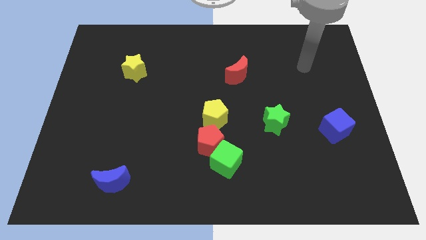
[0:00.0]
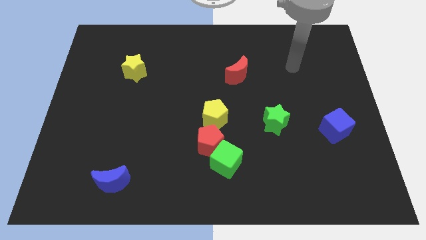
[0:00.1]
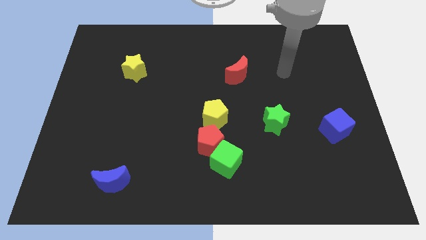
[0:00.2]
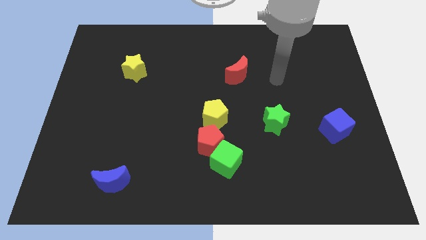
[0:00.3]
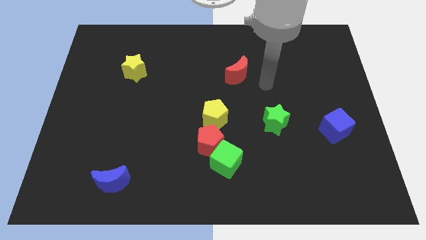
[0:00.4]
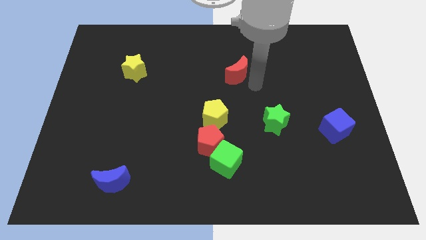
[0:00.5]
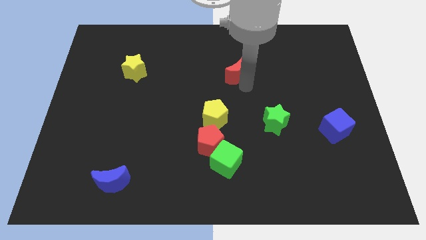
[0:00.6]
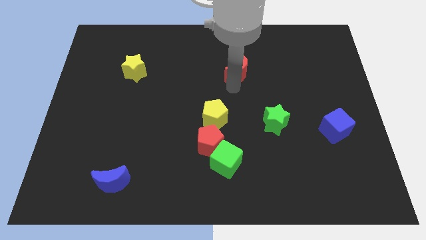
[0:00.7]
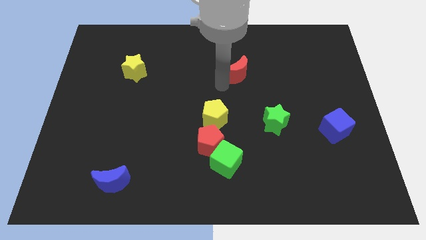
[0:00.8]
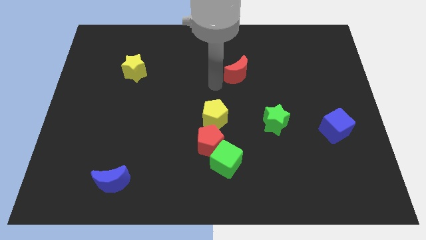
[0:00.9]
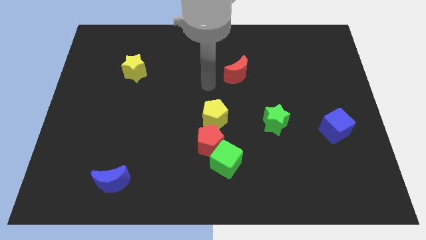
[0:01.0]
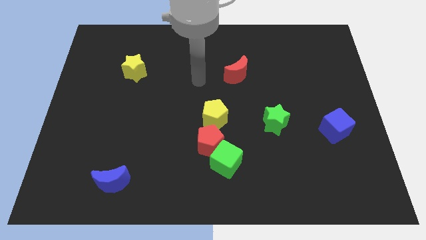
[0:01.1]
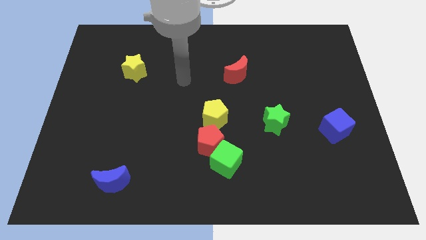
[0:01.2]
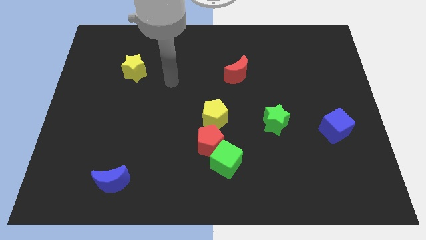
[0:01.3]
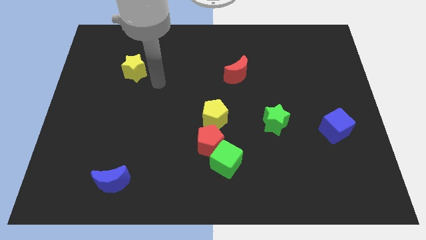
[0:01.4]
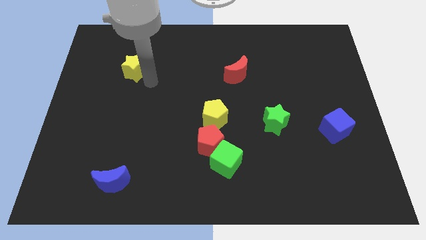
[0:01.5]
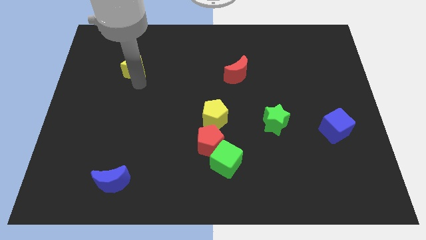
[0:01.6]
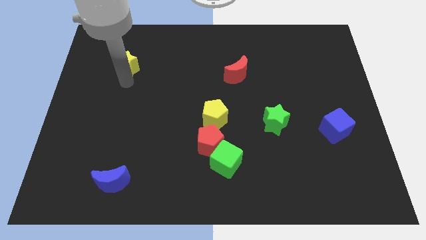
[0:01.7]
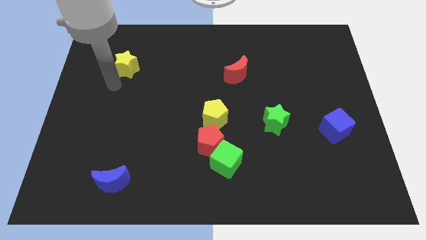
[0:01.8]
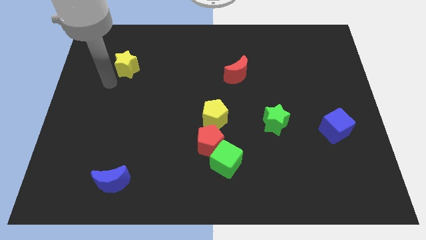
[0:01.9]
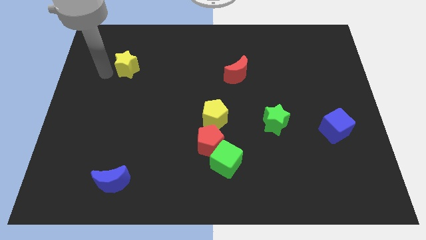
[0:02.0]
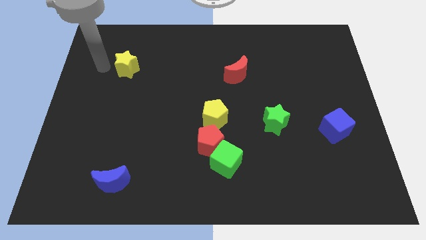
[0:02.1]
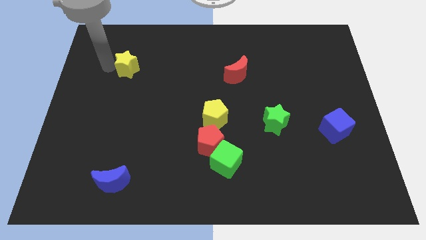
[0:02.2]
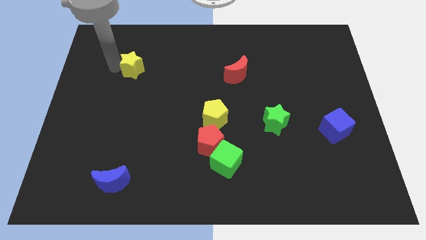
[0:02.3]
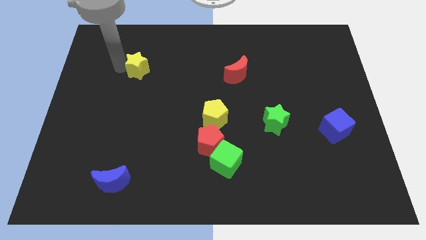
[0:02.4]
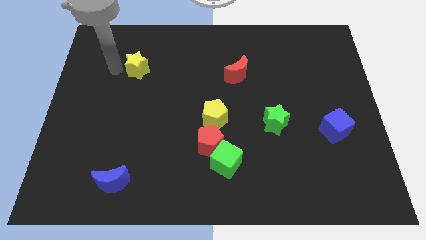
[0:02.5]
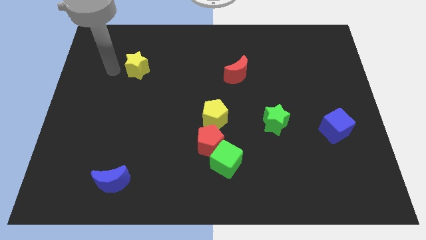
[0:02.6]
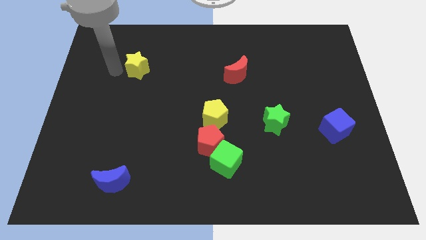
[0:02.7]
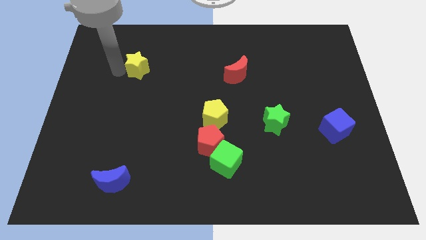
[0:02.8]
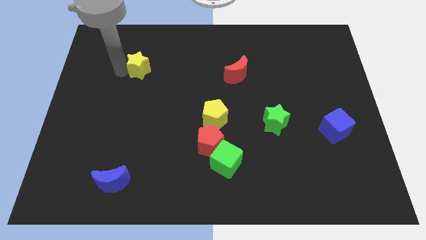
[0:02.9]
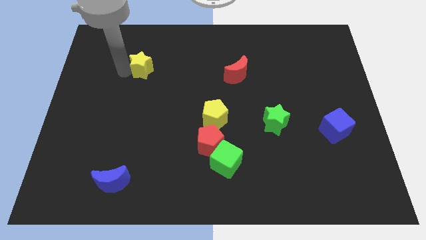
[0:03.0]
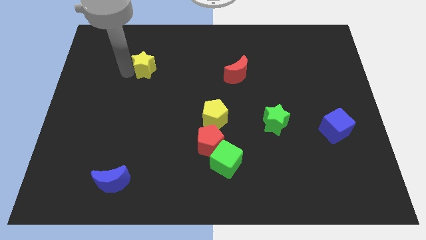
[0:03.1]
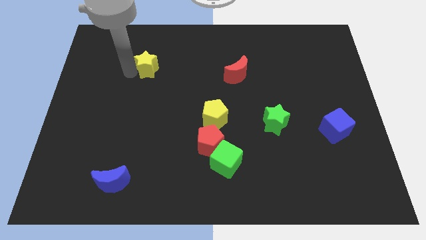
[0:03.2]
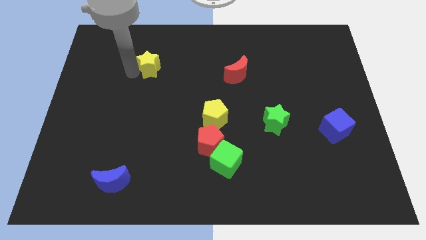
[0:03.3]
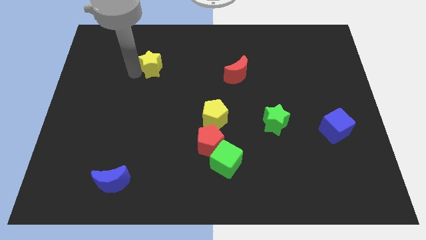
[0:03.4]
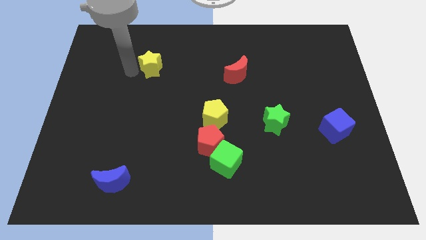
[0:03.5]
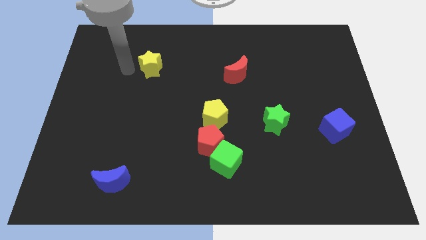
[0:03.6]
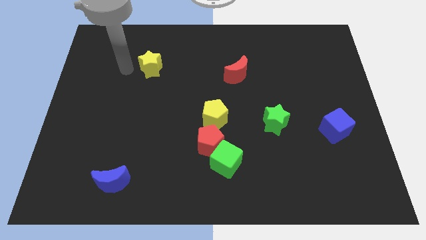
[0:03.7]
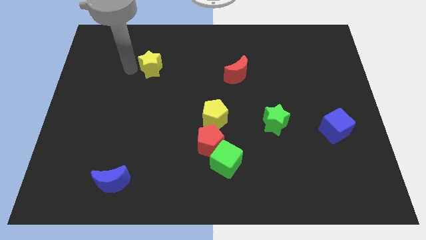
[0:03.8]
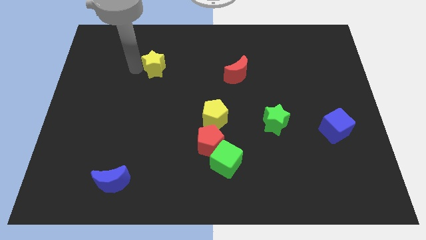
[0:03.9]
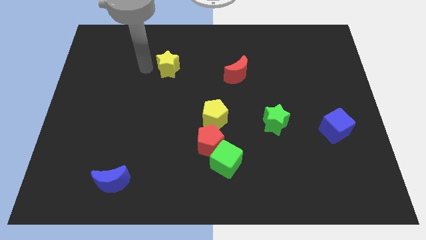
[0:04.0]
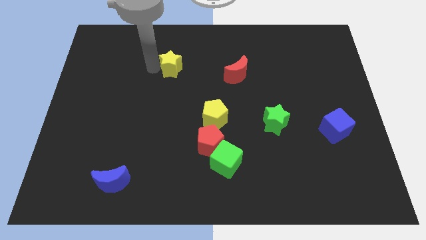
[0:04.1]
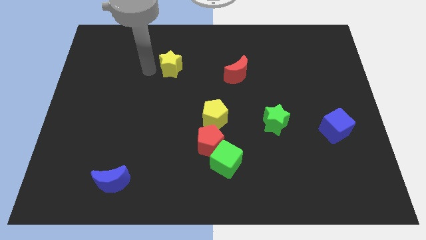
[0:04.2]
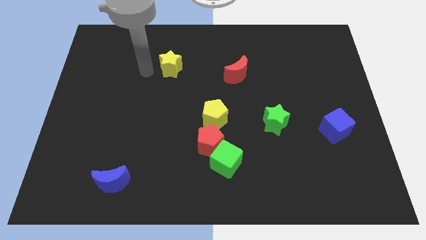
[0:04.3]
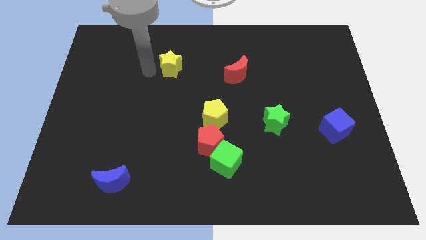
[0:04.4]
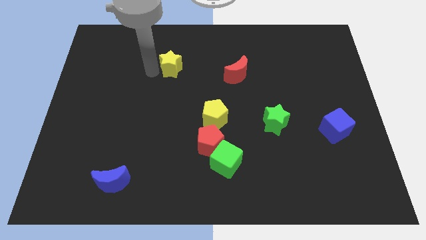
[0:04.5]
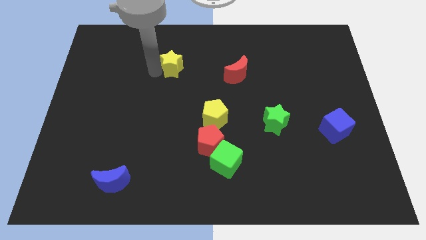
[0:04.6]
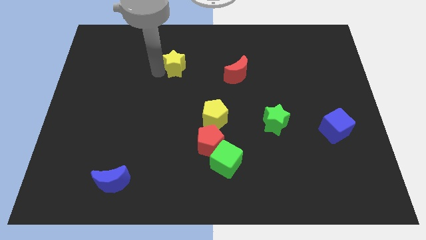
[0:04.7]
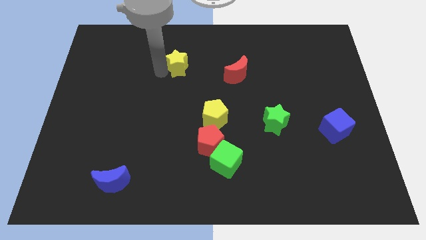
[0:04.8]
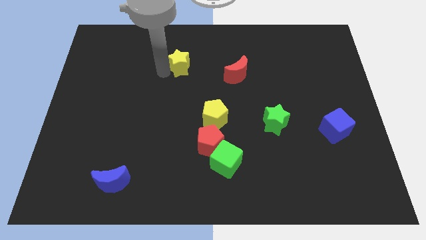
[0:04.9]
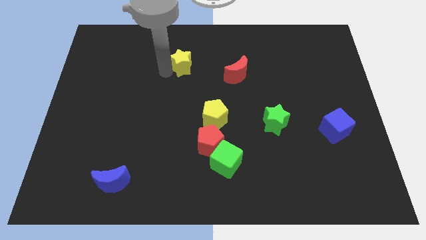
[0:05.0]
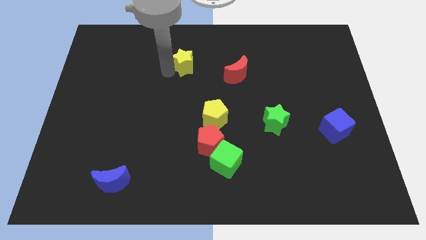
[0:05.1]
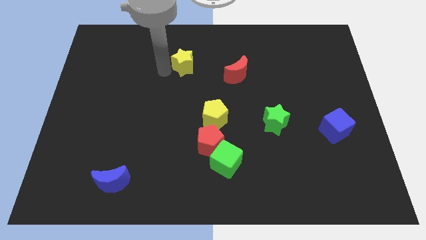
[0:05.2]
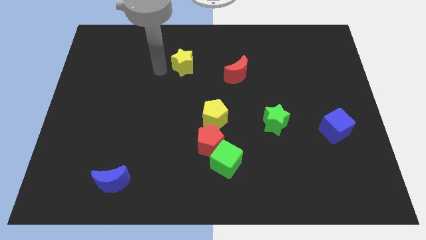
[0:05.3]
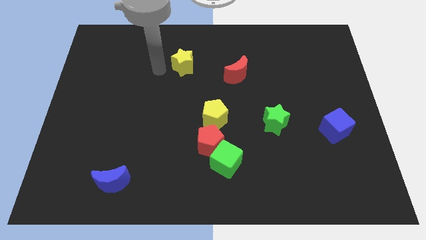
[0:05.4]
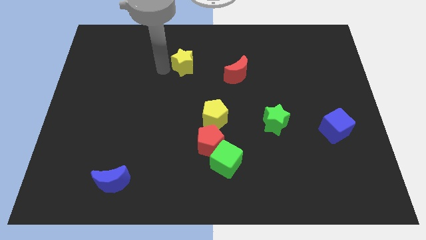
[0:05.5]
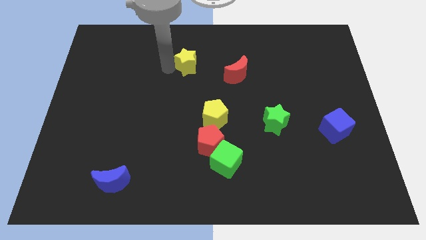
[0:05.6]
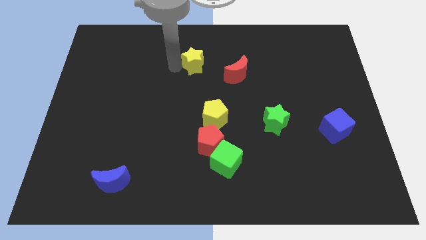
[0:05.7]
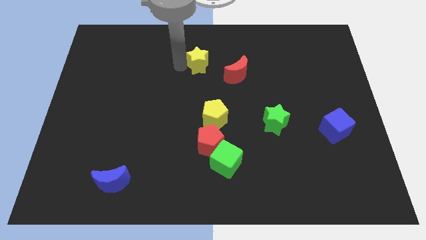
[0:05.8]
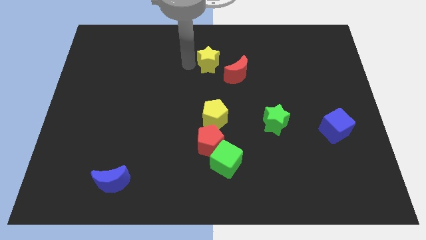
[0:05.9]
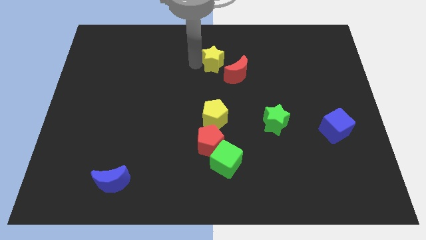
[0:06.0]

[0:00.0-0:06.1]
slide the yellow star to the right

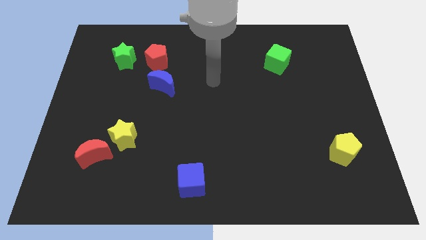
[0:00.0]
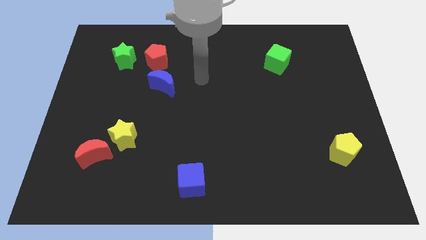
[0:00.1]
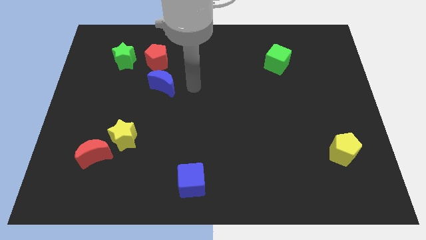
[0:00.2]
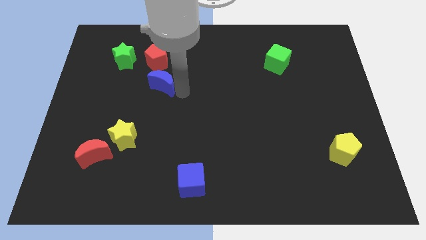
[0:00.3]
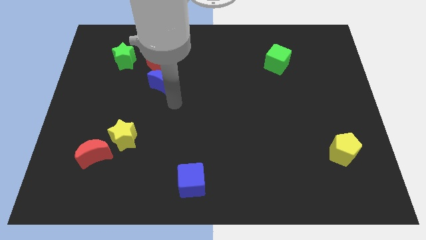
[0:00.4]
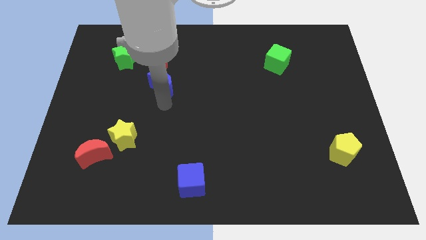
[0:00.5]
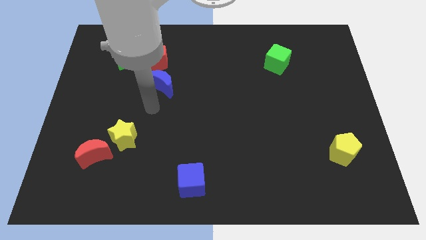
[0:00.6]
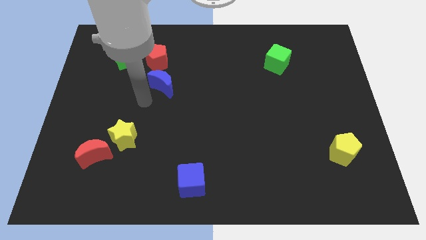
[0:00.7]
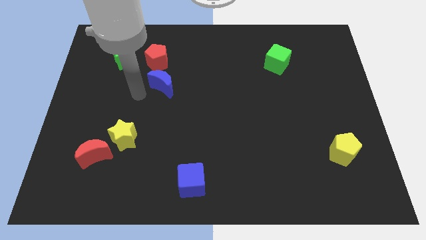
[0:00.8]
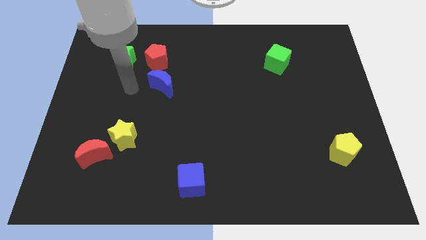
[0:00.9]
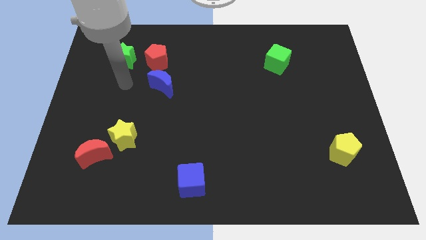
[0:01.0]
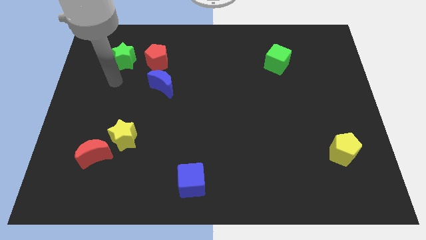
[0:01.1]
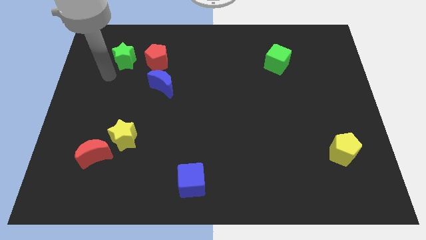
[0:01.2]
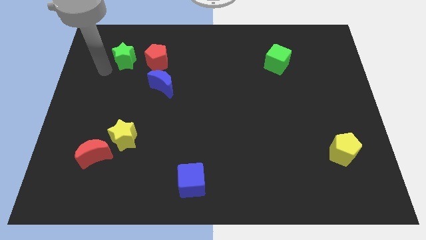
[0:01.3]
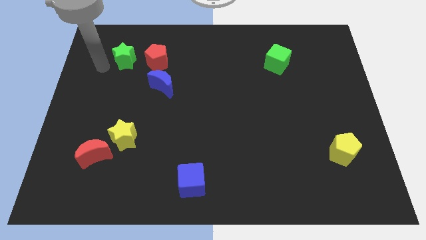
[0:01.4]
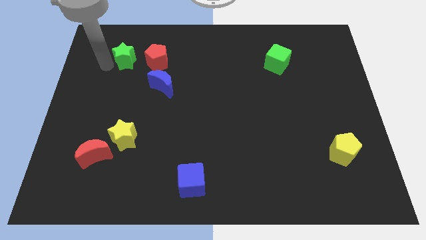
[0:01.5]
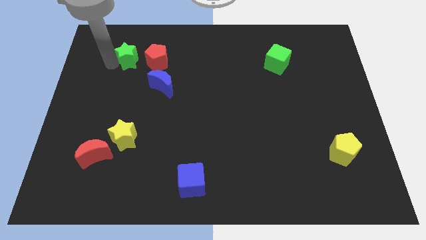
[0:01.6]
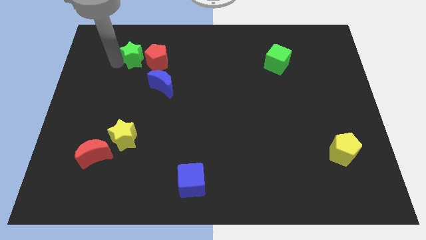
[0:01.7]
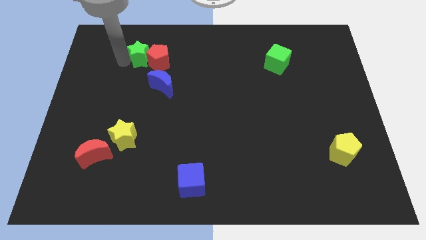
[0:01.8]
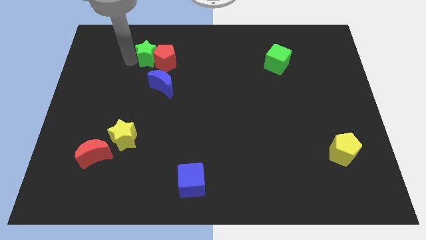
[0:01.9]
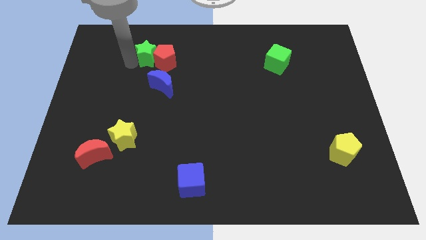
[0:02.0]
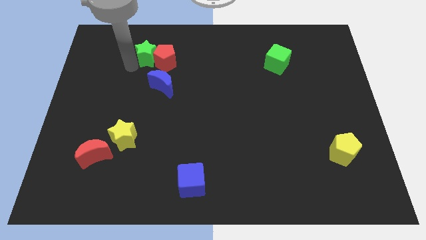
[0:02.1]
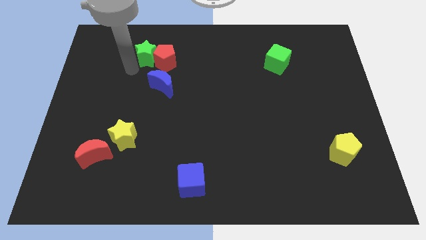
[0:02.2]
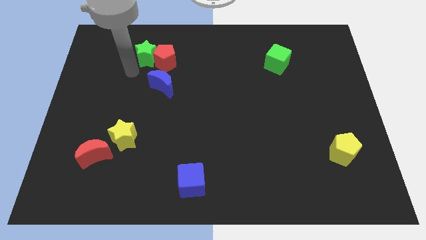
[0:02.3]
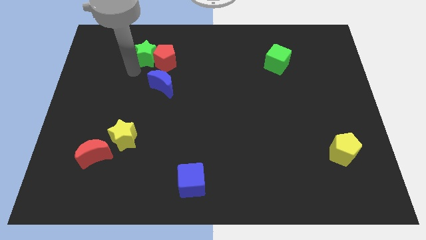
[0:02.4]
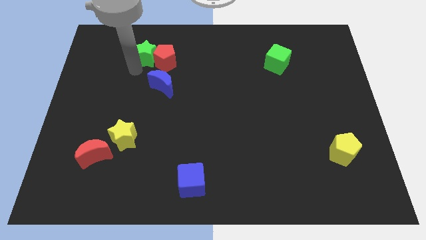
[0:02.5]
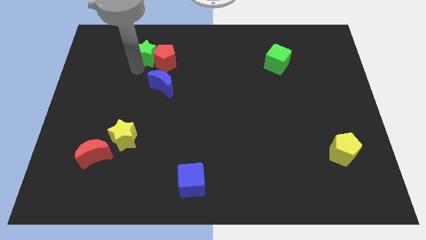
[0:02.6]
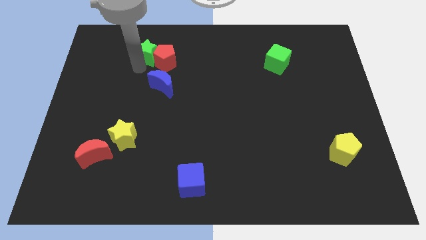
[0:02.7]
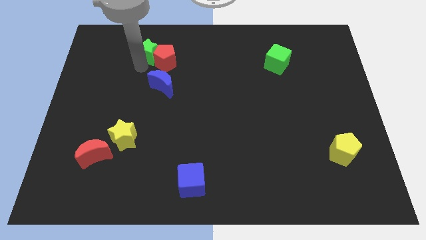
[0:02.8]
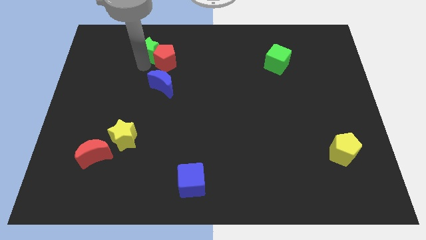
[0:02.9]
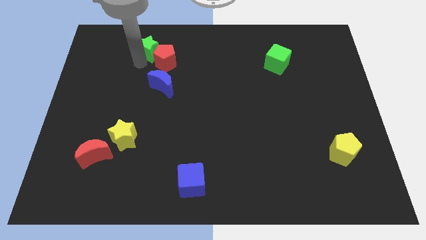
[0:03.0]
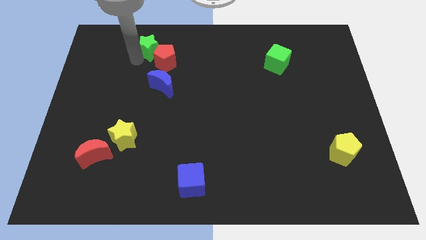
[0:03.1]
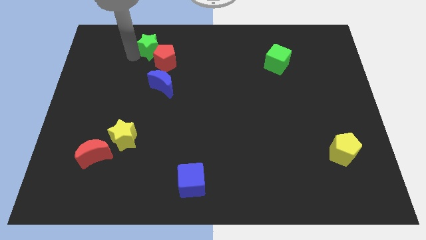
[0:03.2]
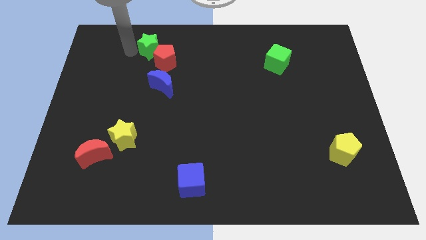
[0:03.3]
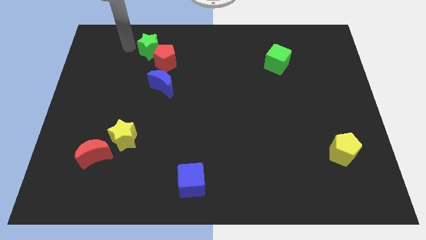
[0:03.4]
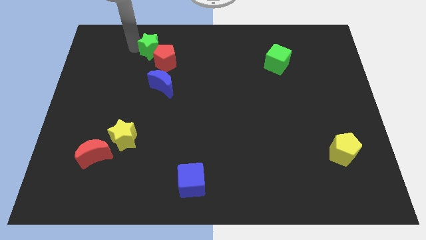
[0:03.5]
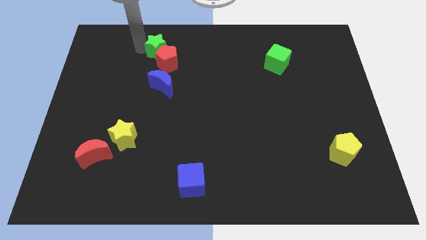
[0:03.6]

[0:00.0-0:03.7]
move the green star a little right
